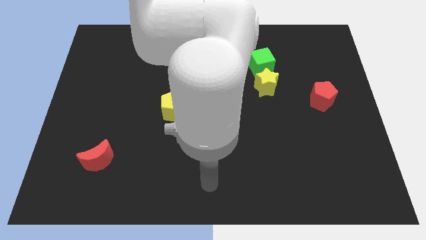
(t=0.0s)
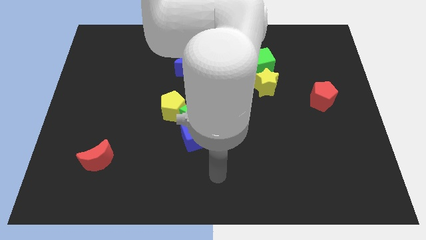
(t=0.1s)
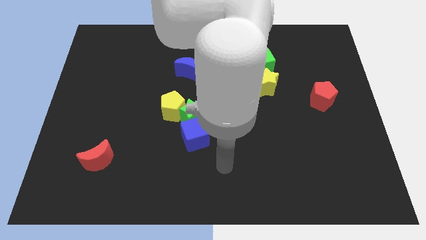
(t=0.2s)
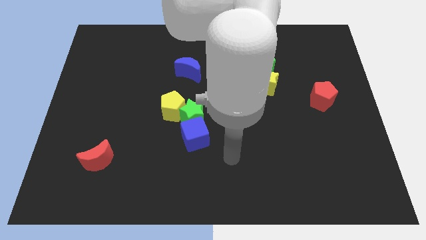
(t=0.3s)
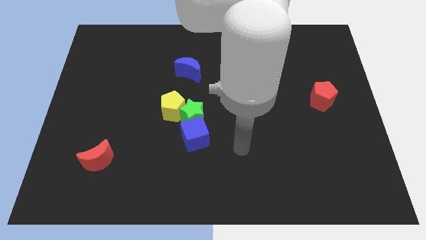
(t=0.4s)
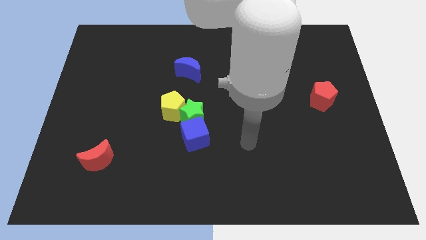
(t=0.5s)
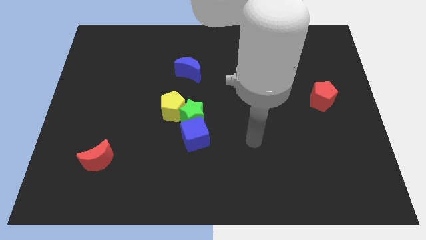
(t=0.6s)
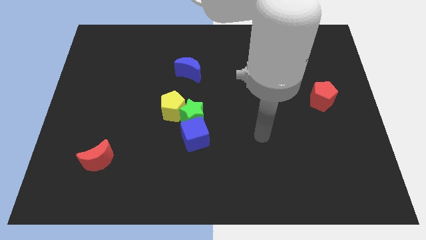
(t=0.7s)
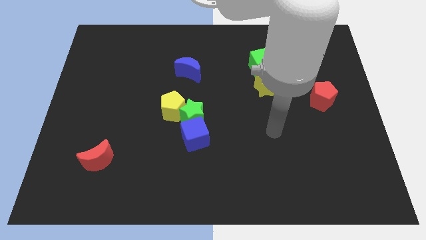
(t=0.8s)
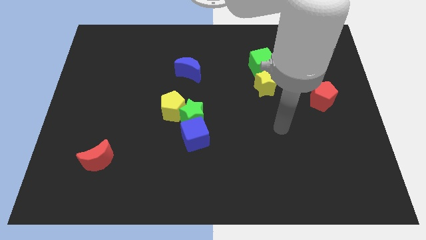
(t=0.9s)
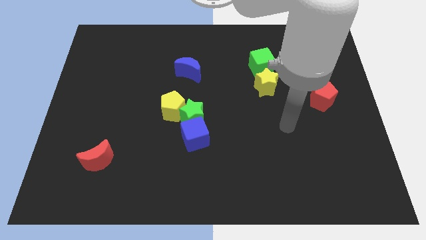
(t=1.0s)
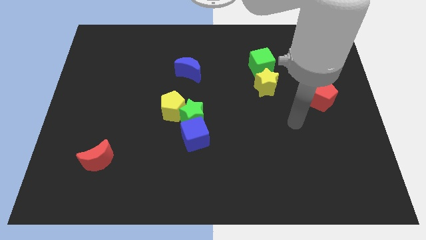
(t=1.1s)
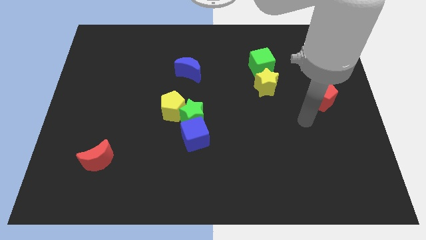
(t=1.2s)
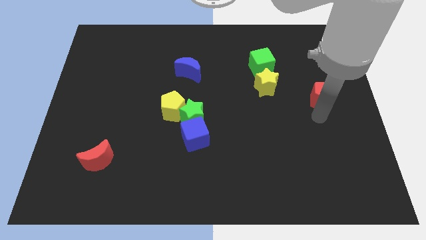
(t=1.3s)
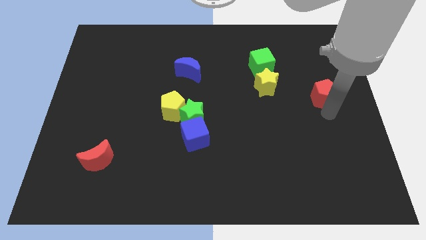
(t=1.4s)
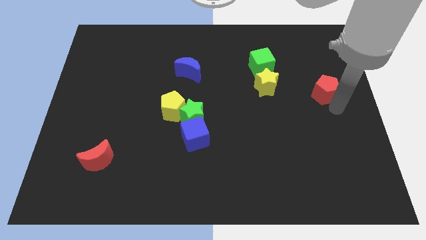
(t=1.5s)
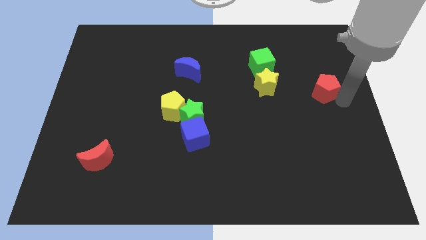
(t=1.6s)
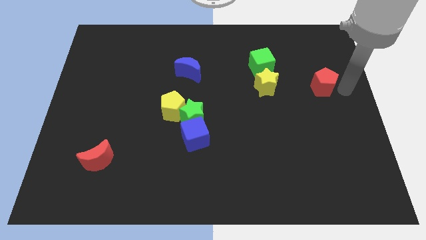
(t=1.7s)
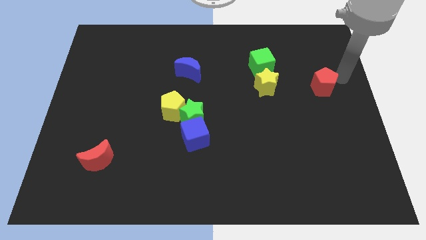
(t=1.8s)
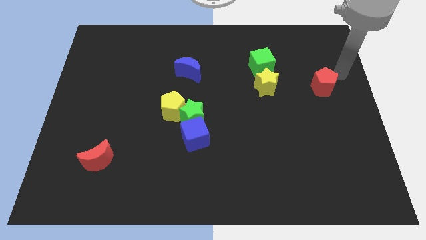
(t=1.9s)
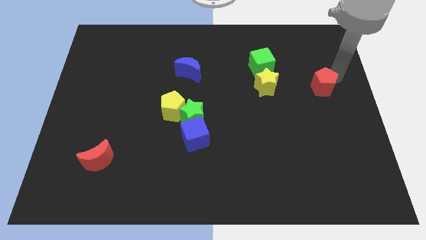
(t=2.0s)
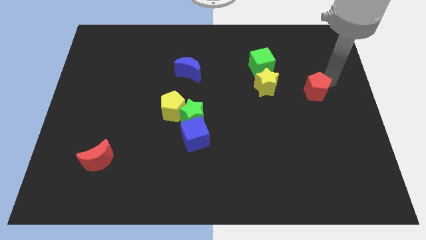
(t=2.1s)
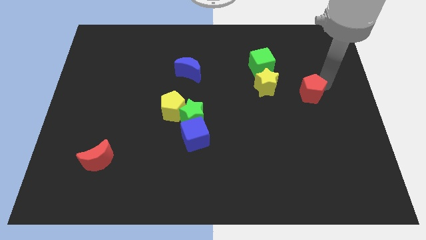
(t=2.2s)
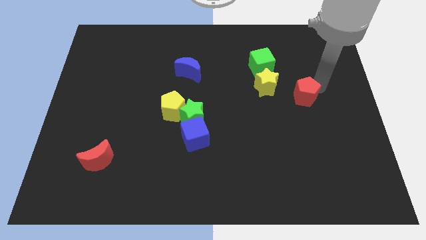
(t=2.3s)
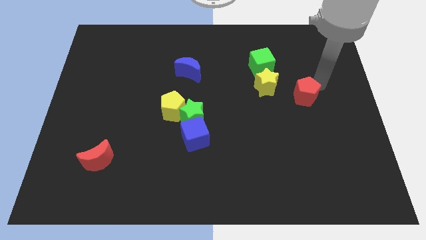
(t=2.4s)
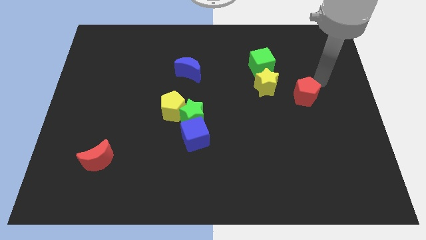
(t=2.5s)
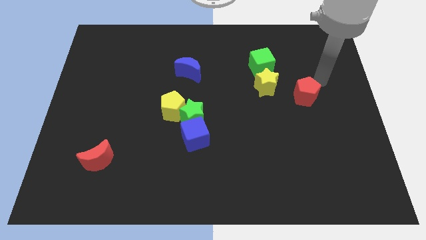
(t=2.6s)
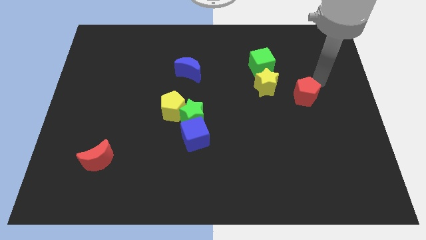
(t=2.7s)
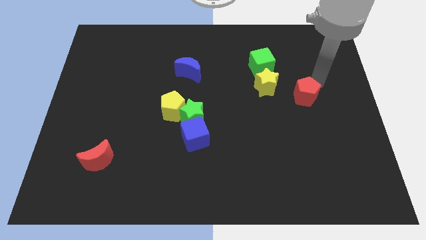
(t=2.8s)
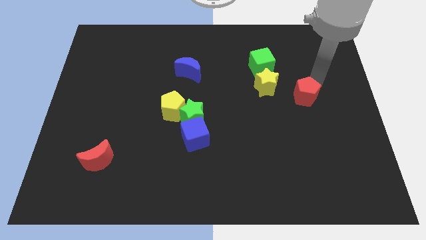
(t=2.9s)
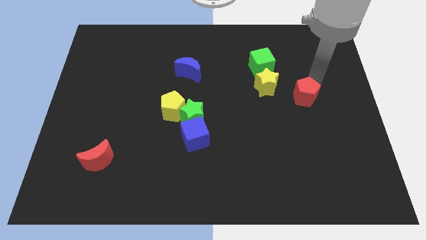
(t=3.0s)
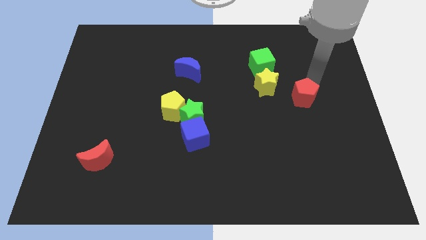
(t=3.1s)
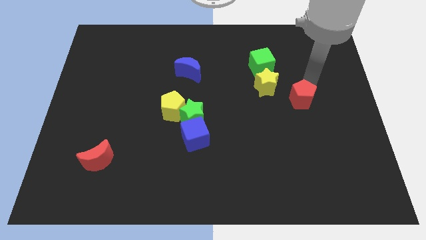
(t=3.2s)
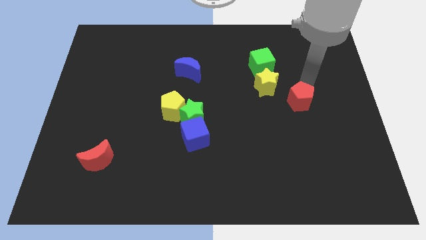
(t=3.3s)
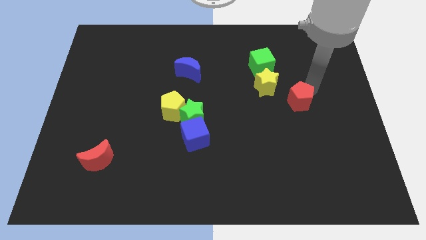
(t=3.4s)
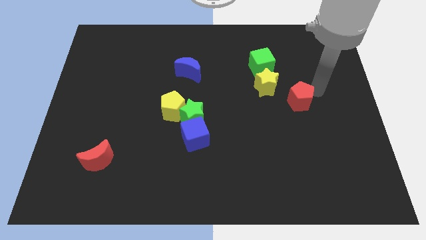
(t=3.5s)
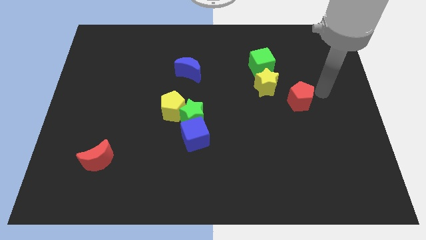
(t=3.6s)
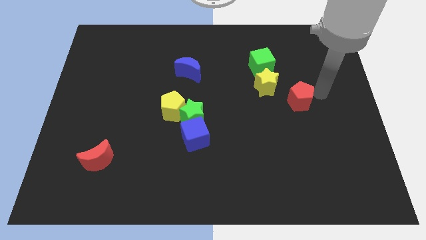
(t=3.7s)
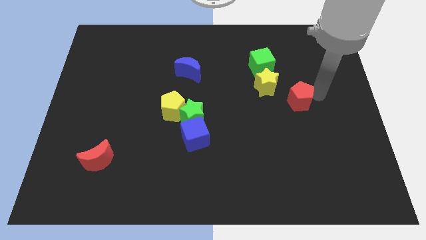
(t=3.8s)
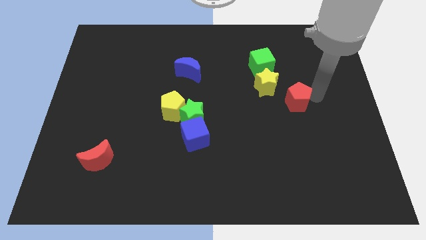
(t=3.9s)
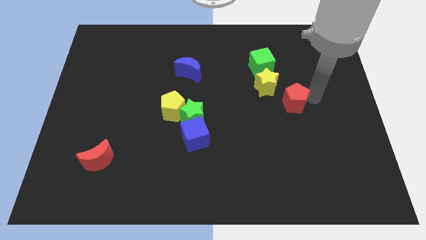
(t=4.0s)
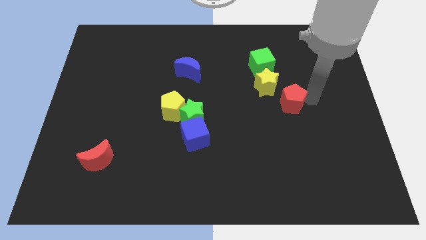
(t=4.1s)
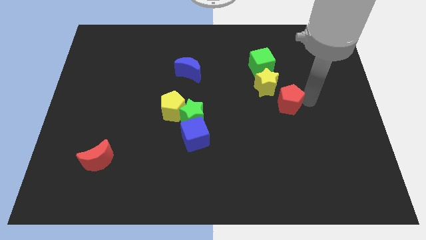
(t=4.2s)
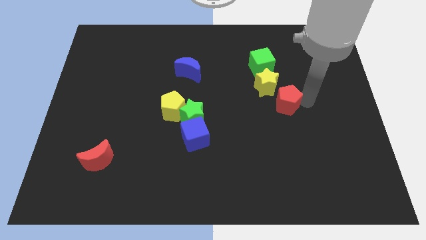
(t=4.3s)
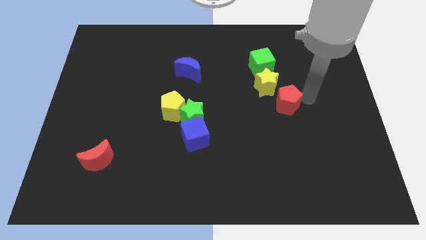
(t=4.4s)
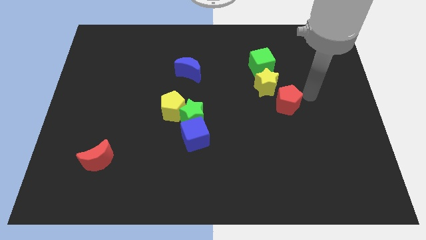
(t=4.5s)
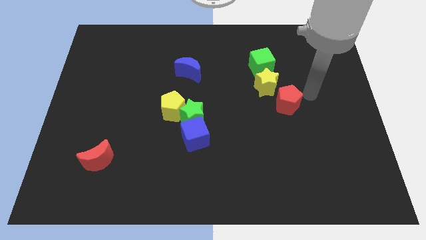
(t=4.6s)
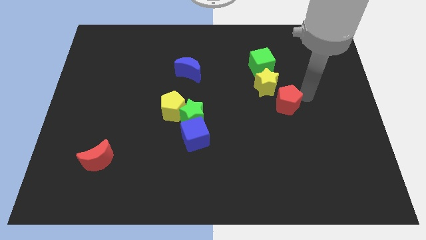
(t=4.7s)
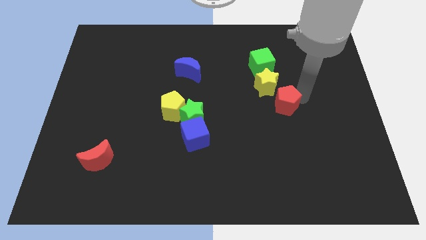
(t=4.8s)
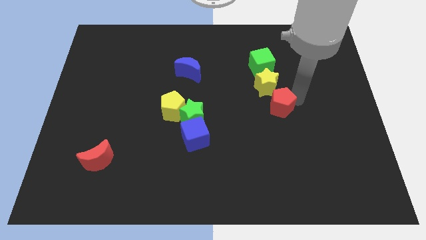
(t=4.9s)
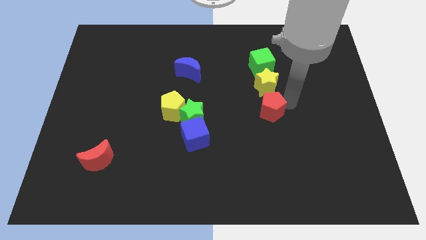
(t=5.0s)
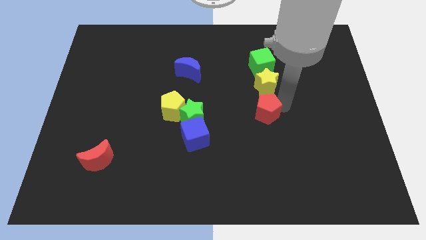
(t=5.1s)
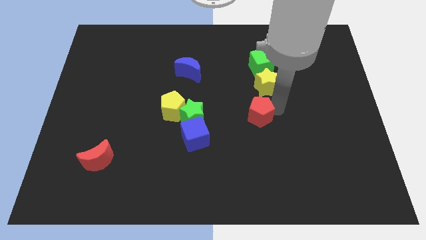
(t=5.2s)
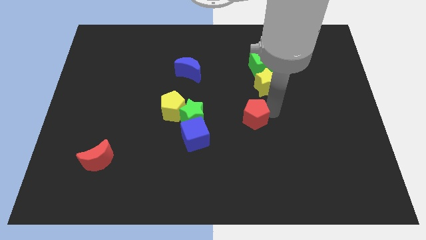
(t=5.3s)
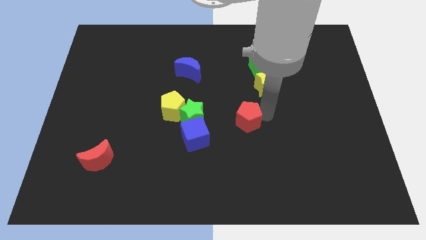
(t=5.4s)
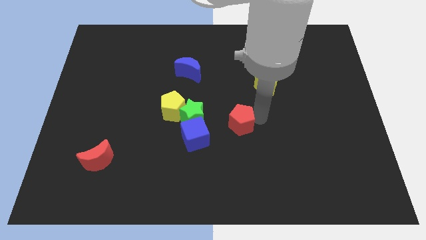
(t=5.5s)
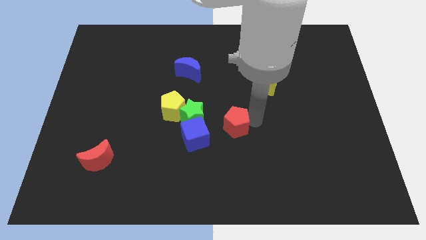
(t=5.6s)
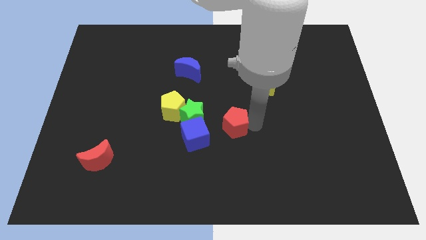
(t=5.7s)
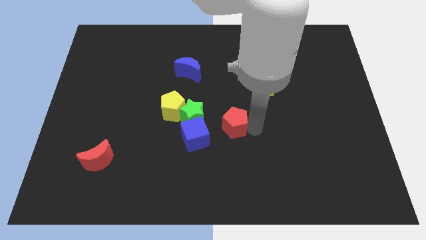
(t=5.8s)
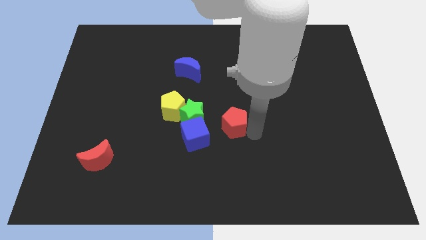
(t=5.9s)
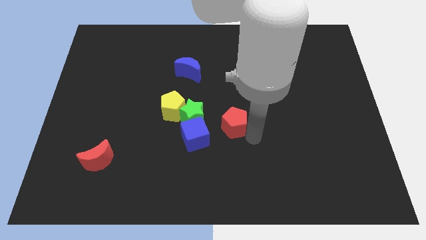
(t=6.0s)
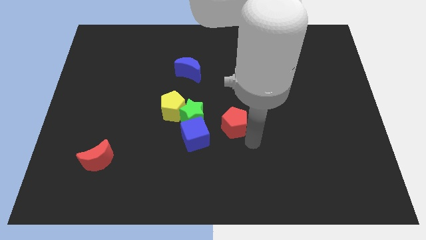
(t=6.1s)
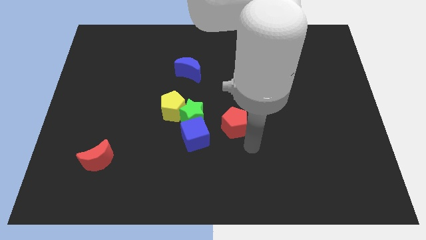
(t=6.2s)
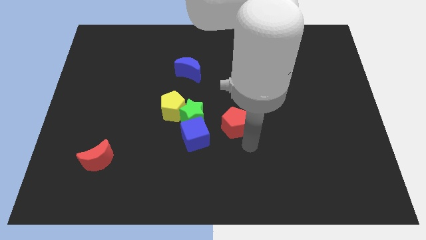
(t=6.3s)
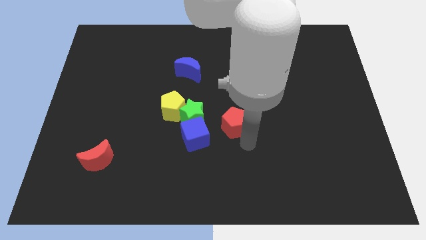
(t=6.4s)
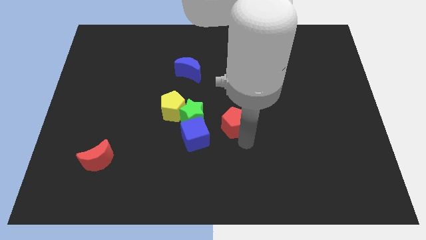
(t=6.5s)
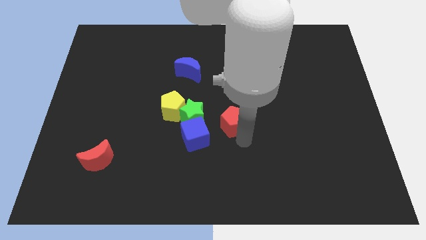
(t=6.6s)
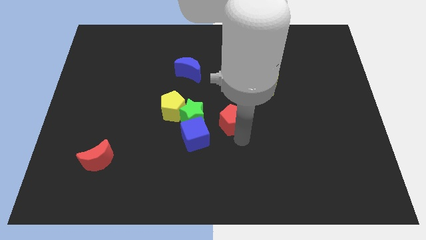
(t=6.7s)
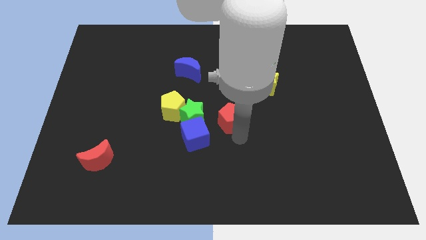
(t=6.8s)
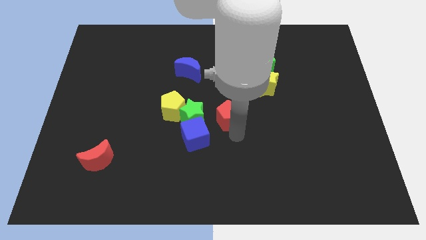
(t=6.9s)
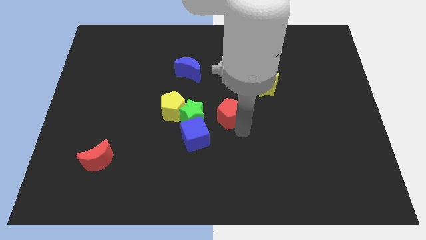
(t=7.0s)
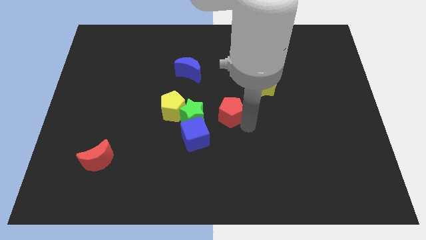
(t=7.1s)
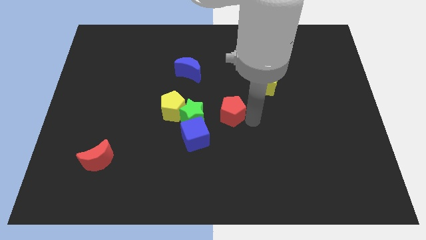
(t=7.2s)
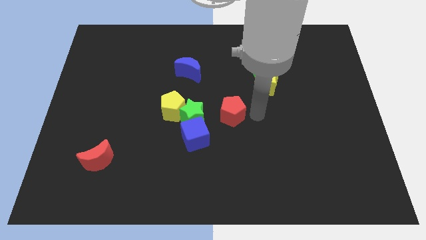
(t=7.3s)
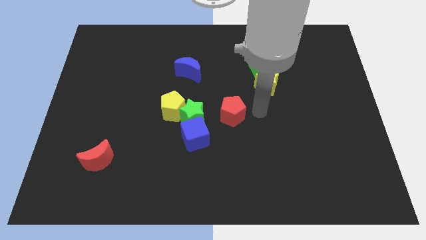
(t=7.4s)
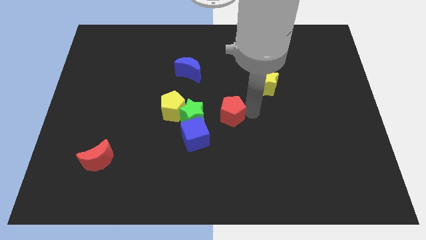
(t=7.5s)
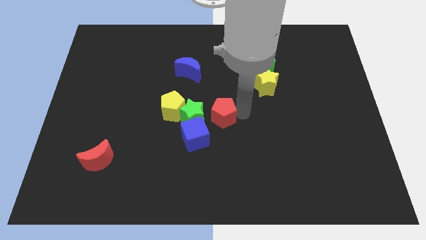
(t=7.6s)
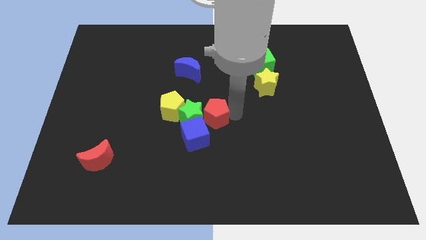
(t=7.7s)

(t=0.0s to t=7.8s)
push the red pentagon next to the green star
